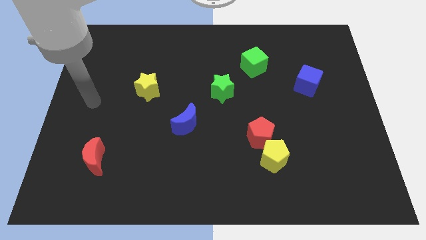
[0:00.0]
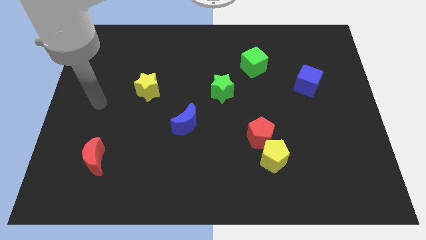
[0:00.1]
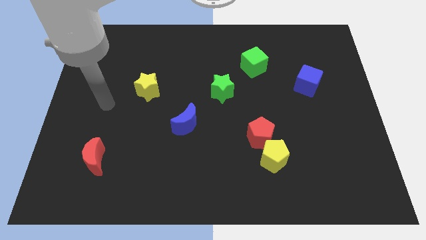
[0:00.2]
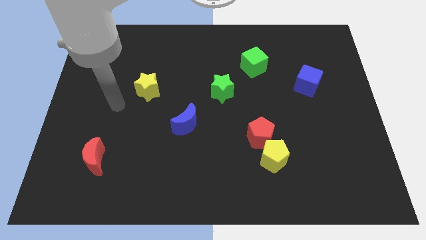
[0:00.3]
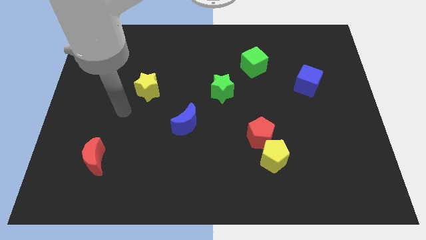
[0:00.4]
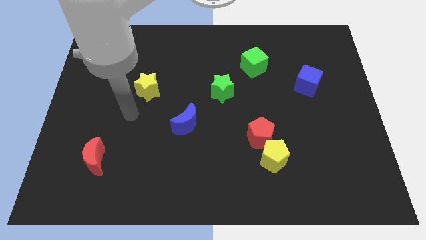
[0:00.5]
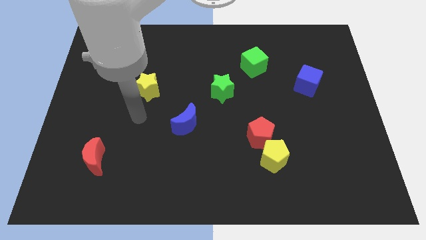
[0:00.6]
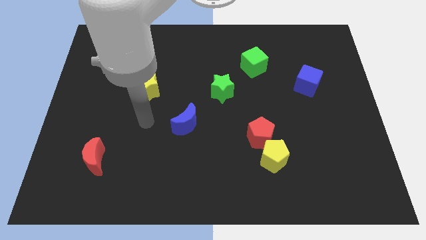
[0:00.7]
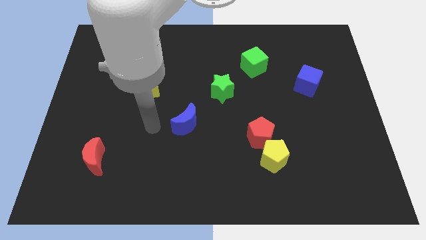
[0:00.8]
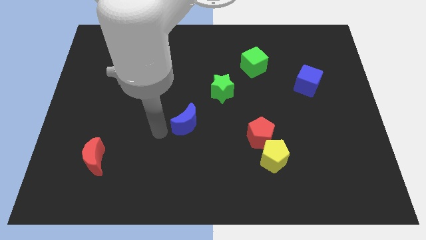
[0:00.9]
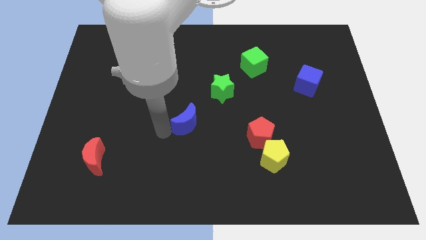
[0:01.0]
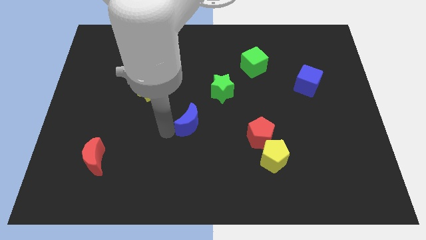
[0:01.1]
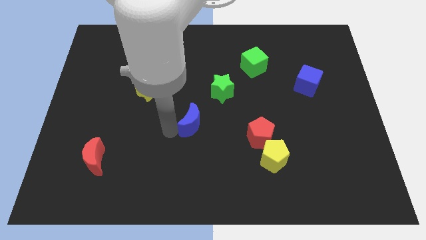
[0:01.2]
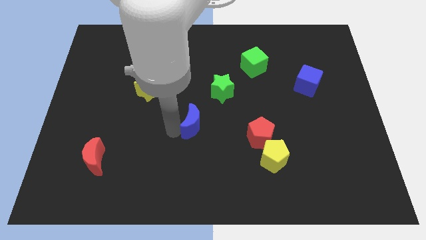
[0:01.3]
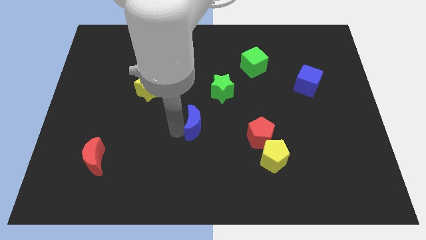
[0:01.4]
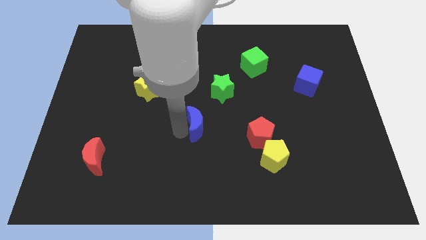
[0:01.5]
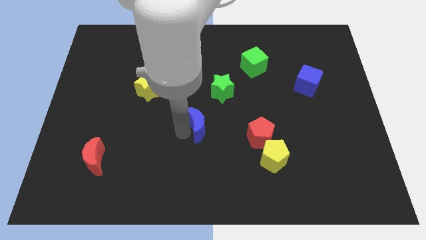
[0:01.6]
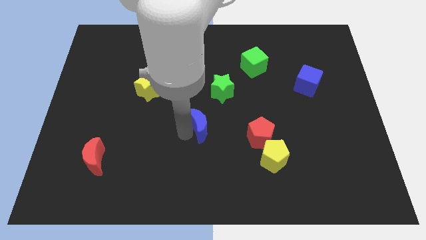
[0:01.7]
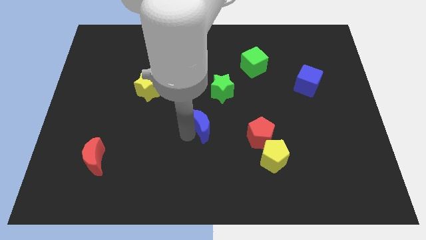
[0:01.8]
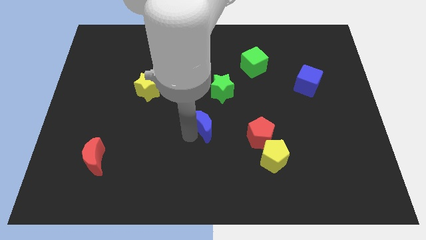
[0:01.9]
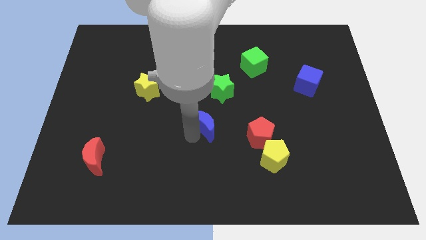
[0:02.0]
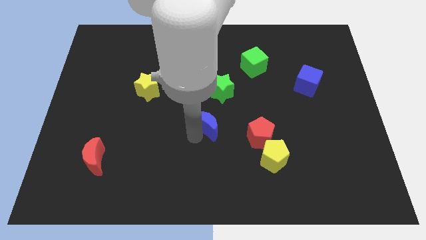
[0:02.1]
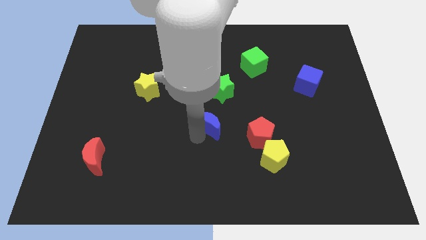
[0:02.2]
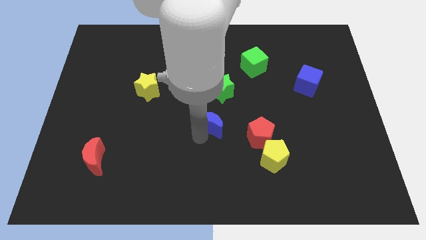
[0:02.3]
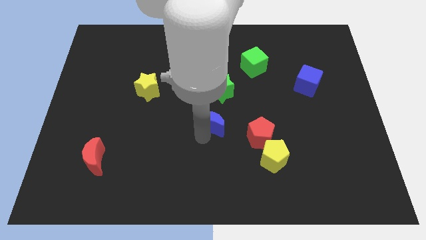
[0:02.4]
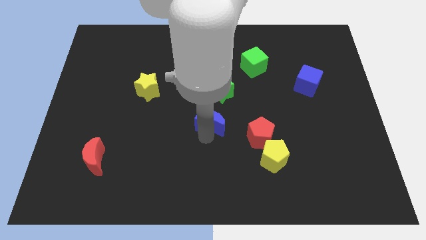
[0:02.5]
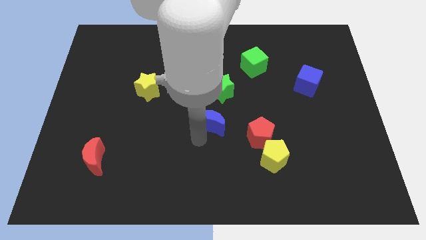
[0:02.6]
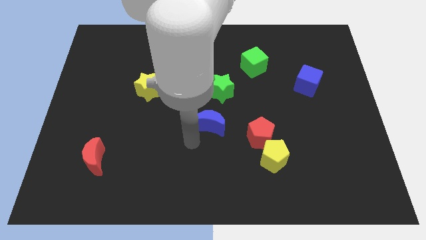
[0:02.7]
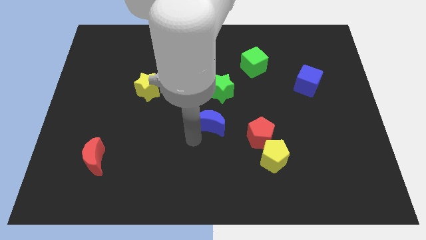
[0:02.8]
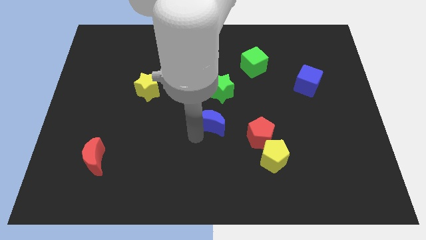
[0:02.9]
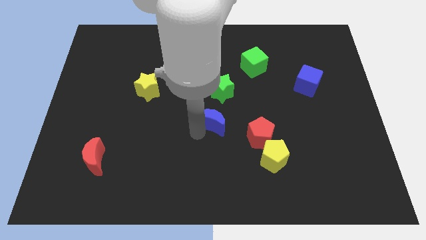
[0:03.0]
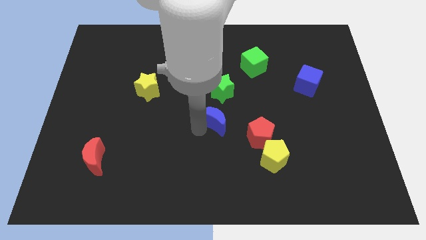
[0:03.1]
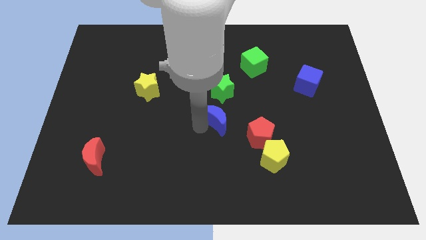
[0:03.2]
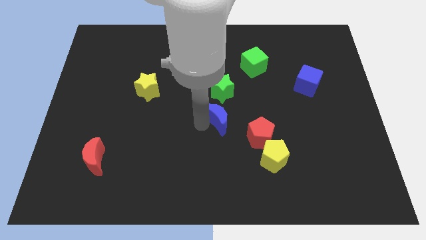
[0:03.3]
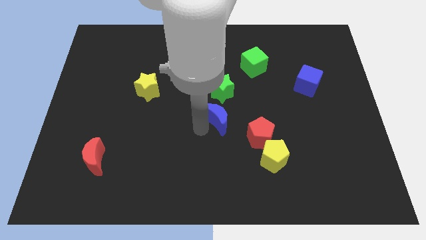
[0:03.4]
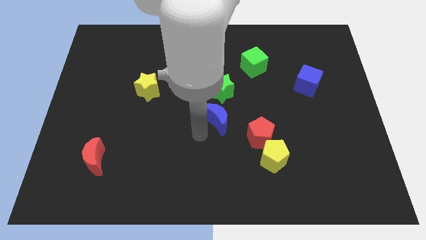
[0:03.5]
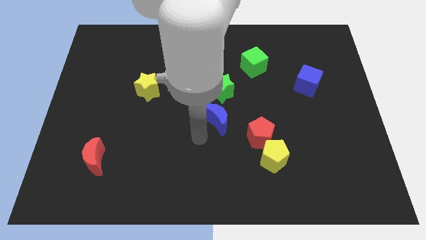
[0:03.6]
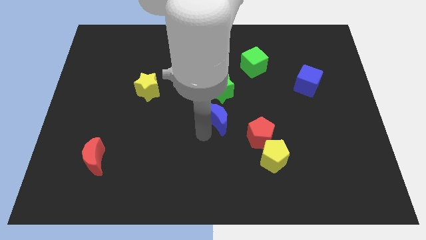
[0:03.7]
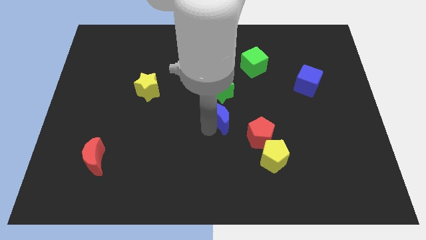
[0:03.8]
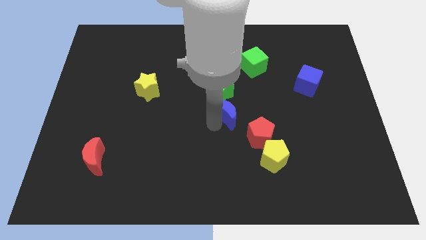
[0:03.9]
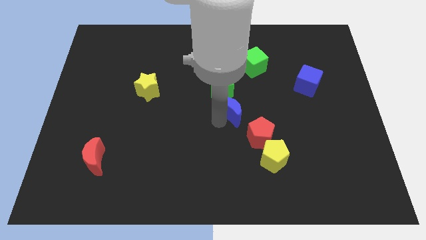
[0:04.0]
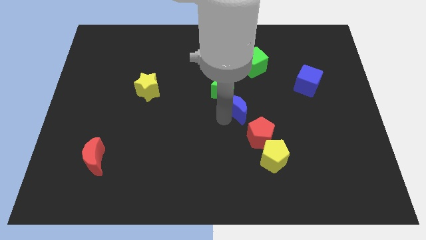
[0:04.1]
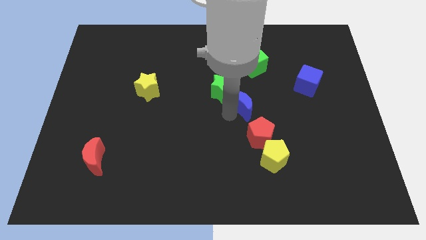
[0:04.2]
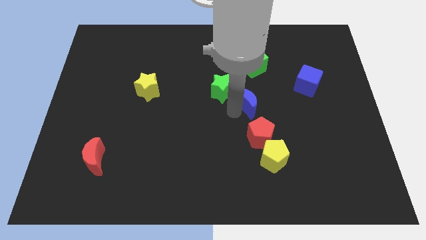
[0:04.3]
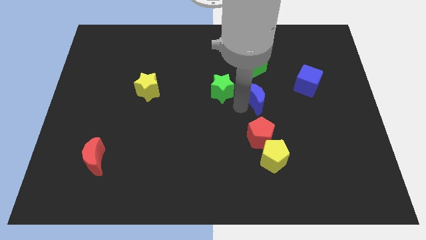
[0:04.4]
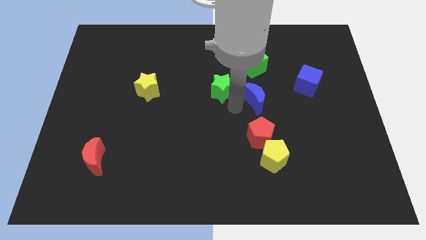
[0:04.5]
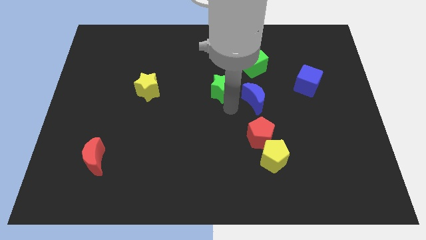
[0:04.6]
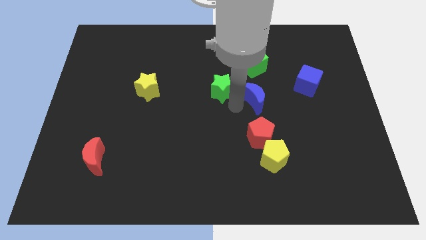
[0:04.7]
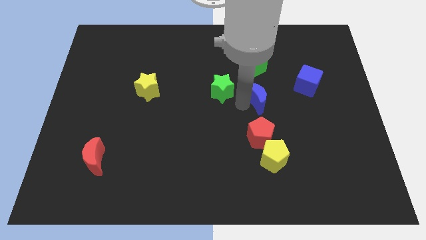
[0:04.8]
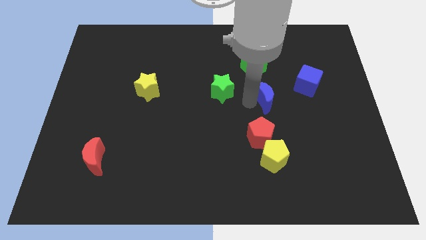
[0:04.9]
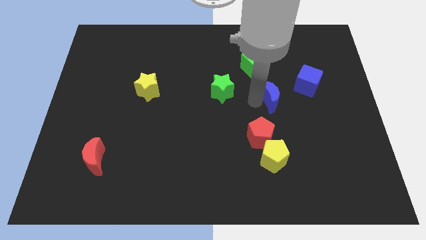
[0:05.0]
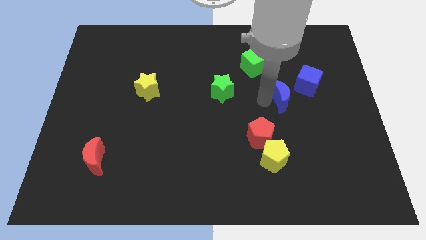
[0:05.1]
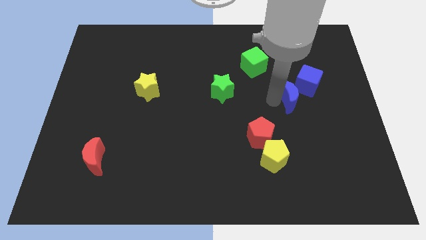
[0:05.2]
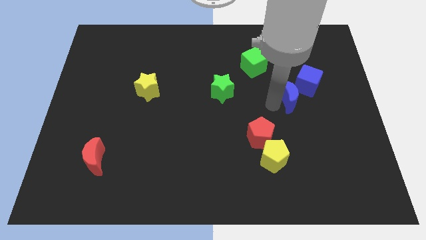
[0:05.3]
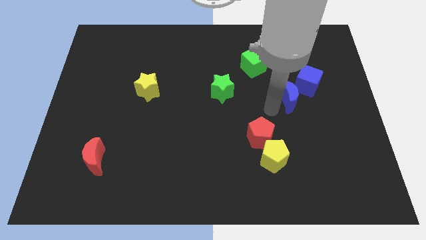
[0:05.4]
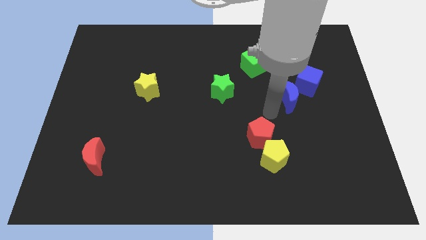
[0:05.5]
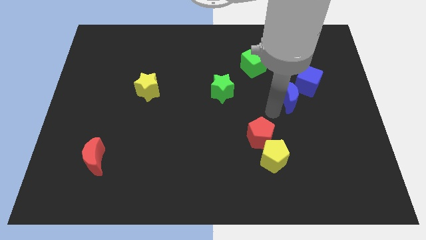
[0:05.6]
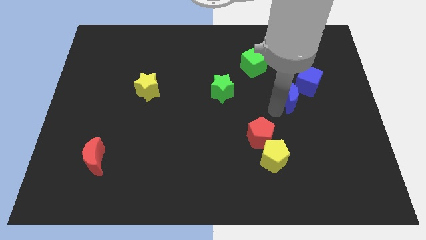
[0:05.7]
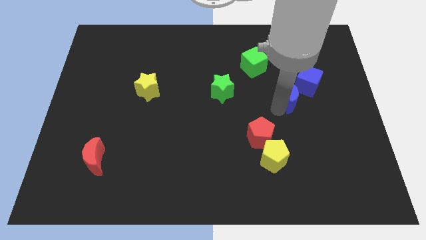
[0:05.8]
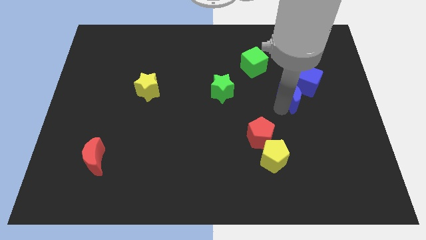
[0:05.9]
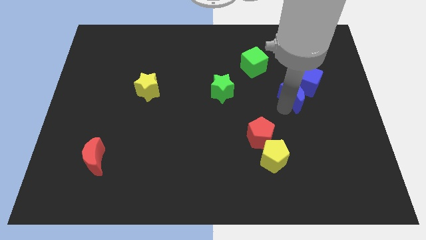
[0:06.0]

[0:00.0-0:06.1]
slide the blue moon close to the blue cube

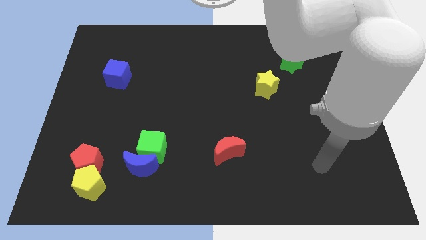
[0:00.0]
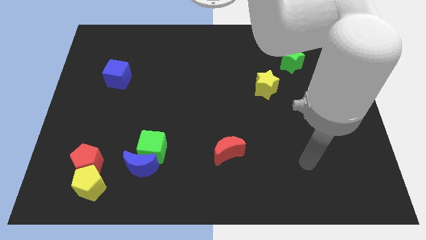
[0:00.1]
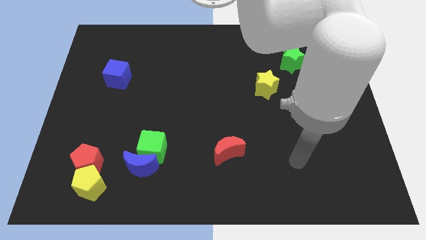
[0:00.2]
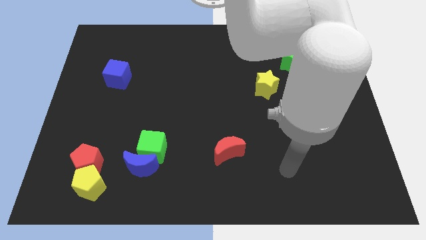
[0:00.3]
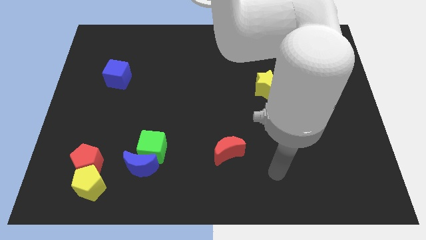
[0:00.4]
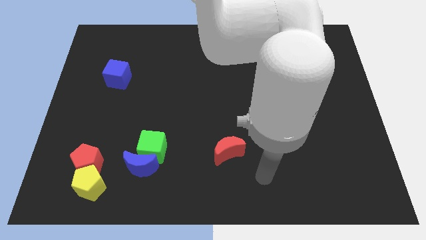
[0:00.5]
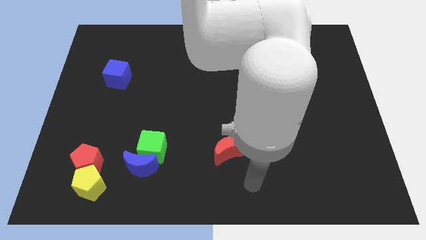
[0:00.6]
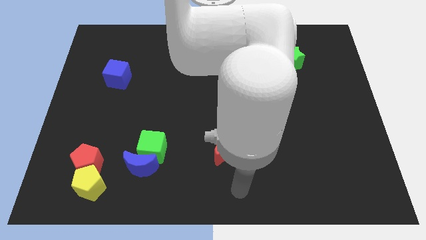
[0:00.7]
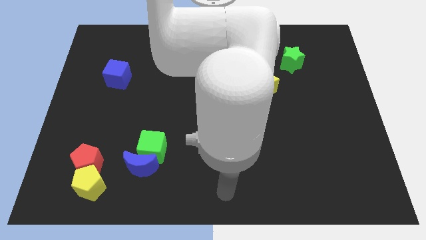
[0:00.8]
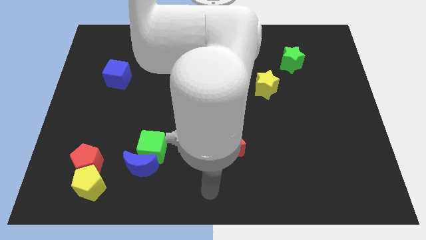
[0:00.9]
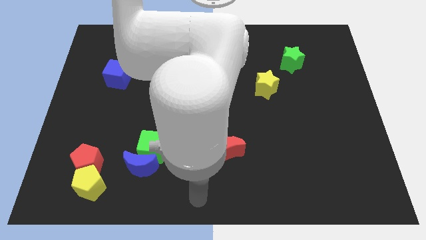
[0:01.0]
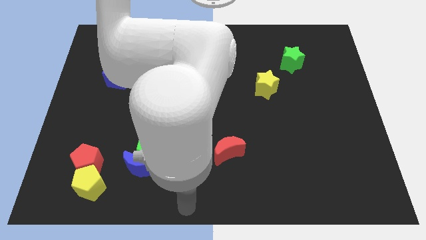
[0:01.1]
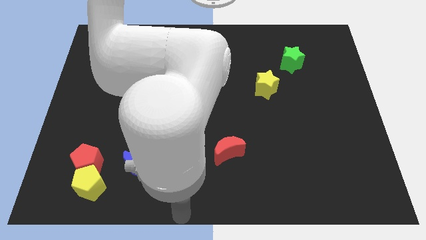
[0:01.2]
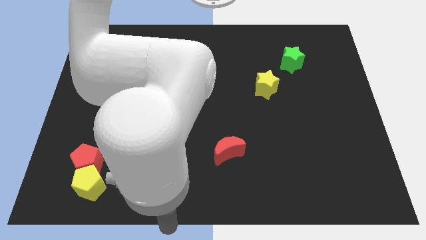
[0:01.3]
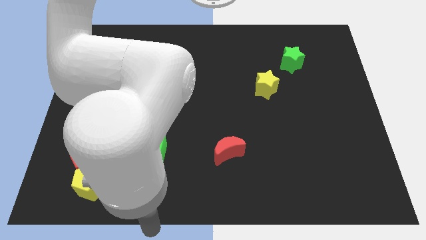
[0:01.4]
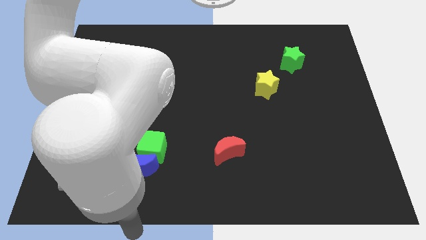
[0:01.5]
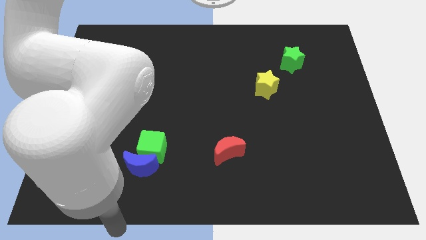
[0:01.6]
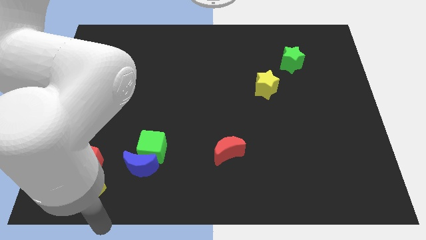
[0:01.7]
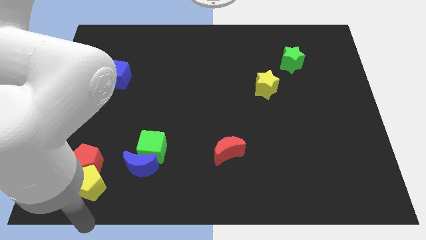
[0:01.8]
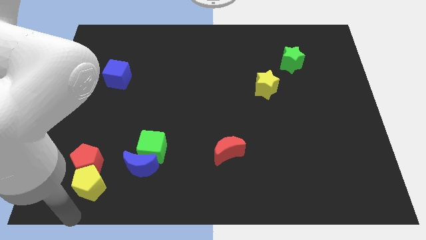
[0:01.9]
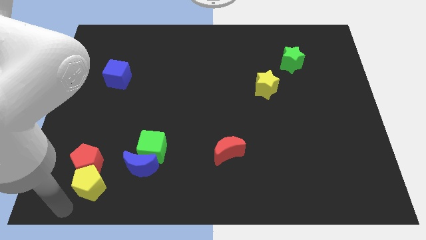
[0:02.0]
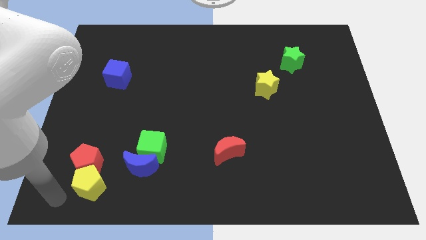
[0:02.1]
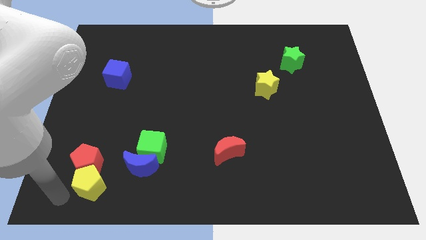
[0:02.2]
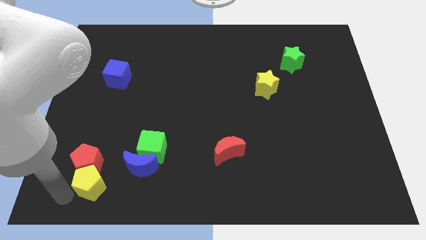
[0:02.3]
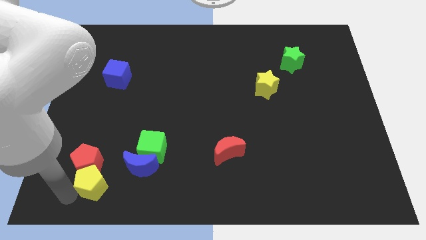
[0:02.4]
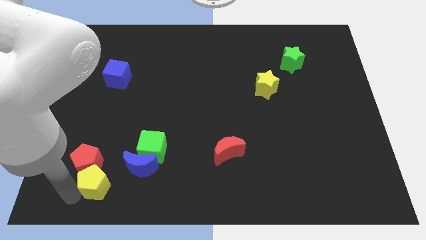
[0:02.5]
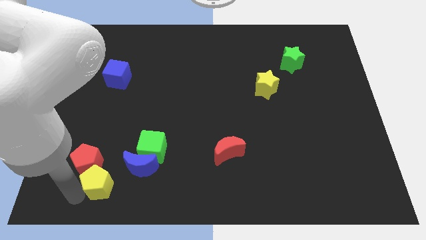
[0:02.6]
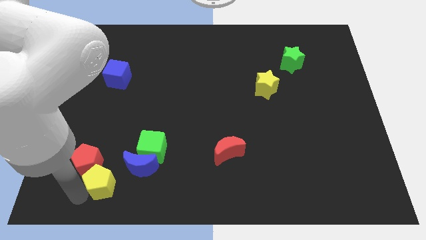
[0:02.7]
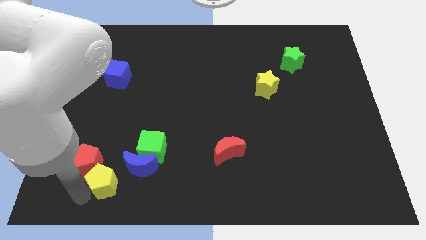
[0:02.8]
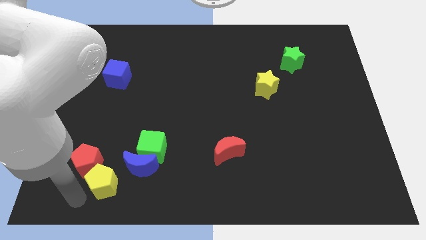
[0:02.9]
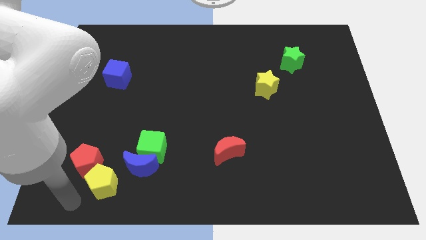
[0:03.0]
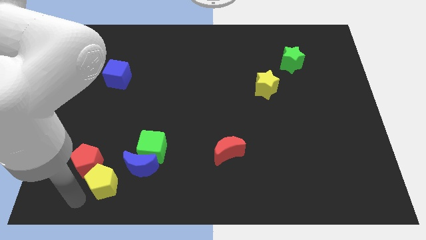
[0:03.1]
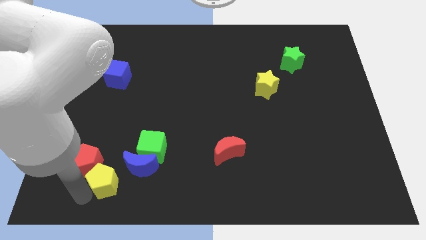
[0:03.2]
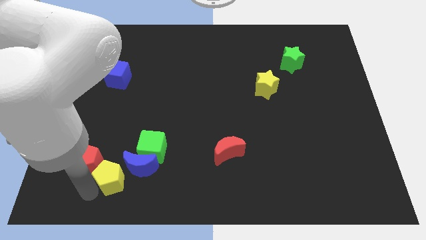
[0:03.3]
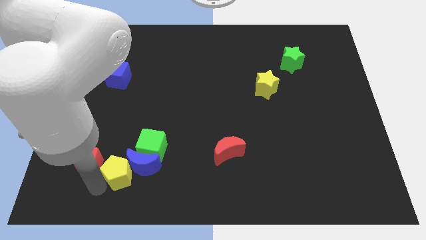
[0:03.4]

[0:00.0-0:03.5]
move the yellow pentagon towards the blue moon
